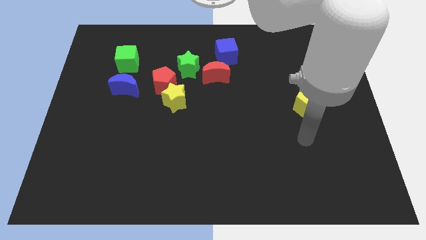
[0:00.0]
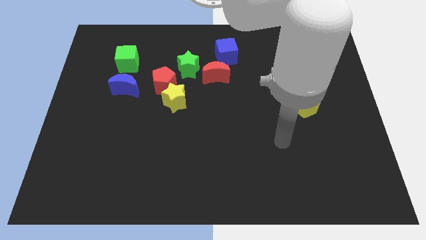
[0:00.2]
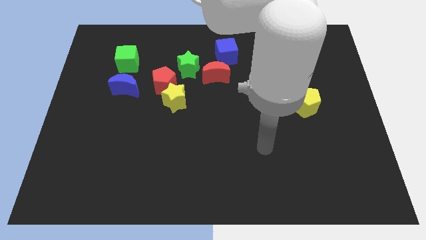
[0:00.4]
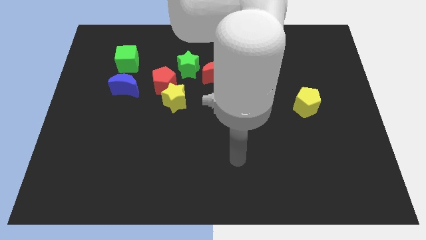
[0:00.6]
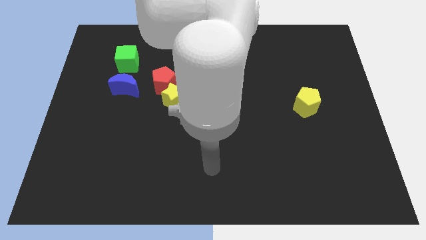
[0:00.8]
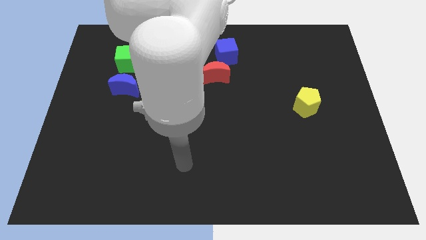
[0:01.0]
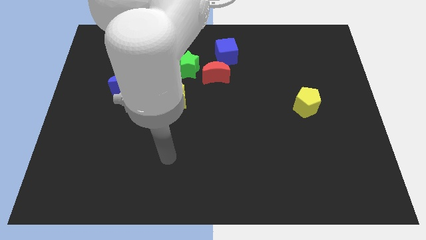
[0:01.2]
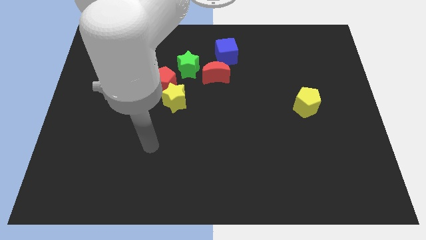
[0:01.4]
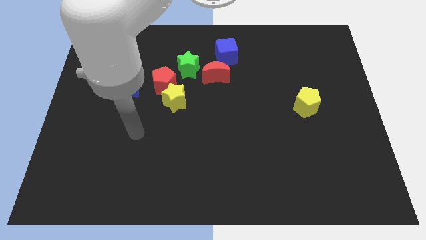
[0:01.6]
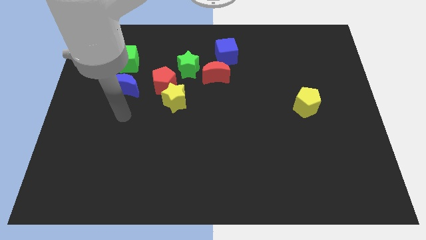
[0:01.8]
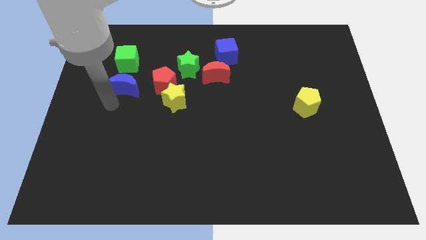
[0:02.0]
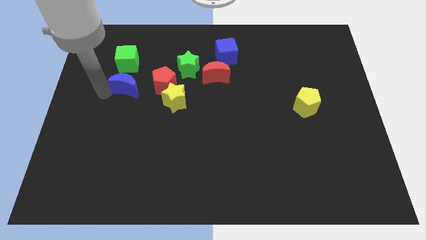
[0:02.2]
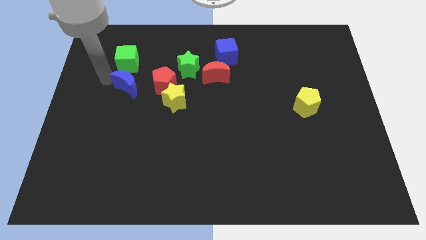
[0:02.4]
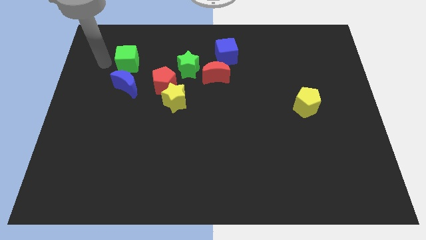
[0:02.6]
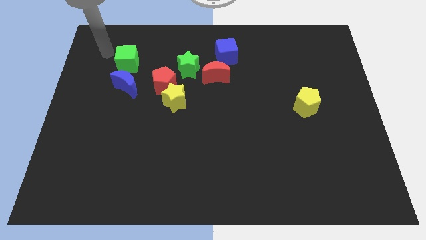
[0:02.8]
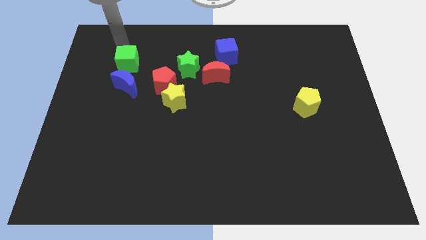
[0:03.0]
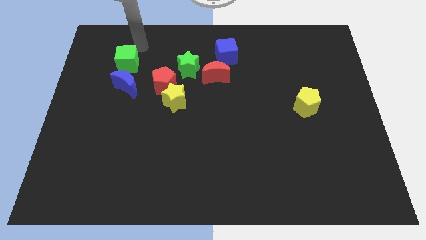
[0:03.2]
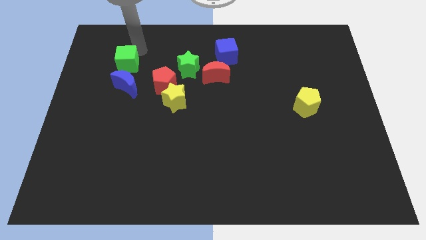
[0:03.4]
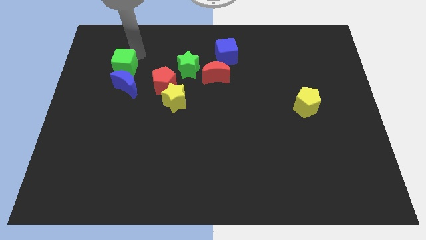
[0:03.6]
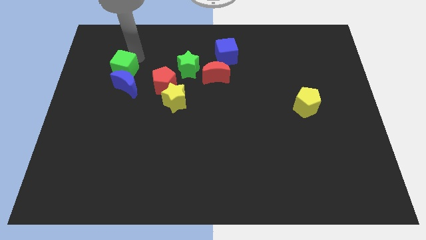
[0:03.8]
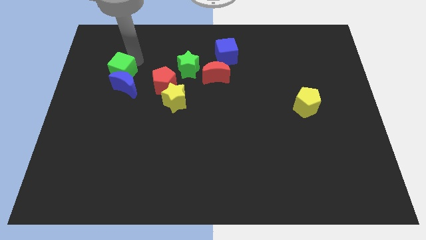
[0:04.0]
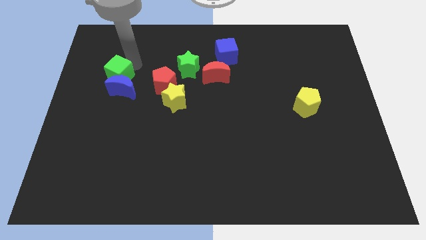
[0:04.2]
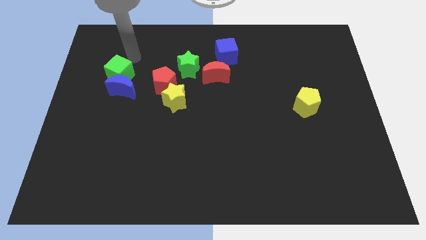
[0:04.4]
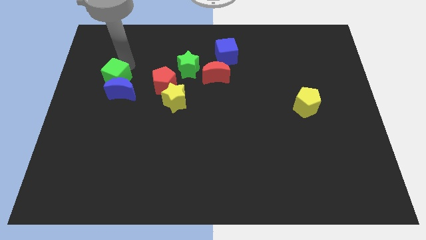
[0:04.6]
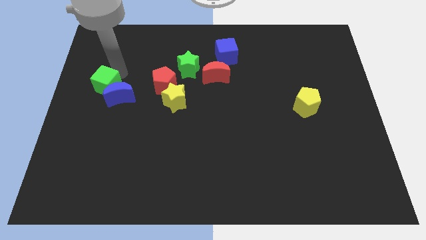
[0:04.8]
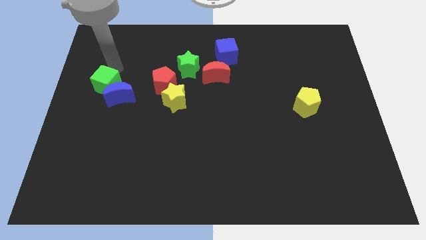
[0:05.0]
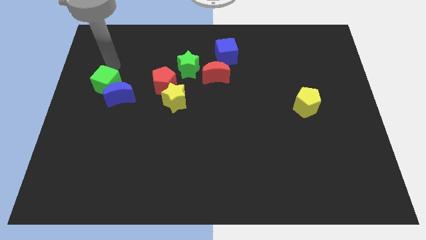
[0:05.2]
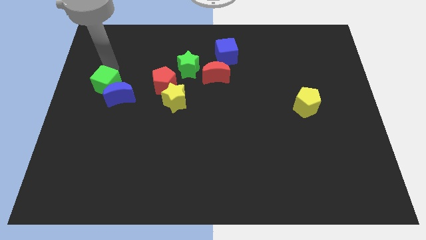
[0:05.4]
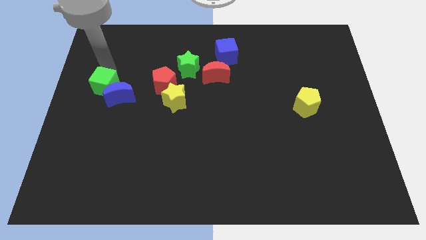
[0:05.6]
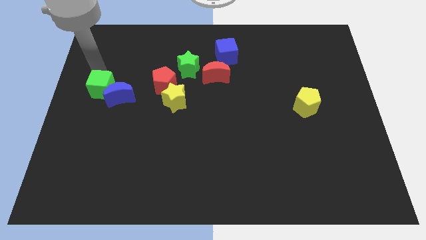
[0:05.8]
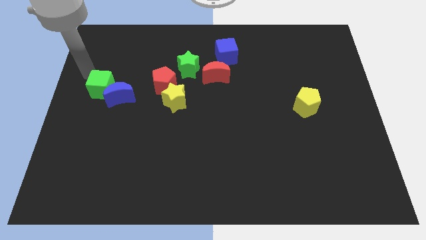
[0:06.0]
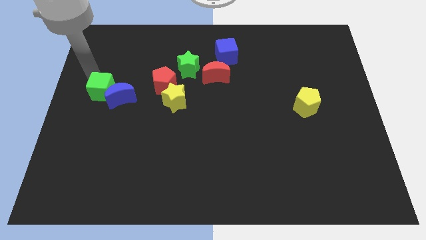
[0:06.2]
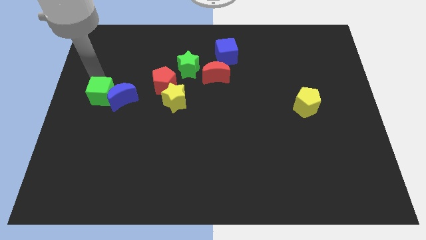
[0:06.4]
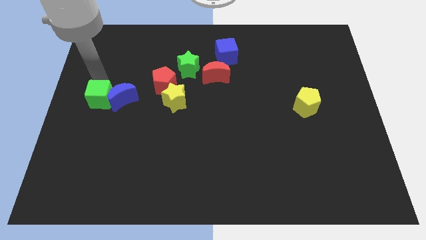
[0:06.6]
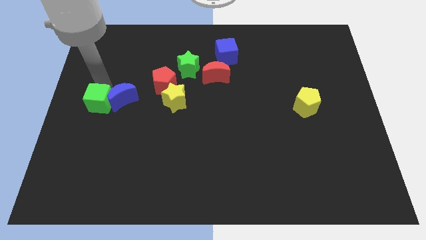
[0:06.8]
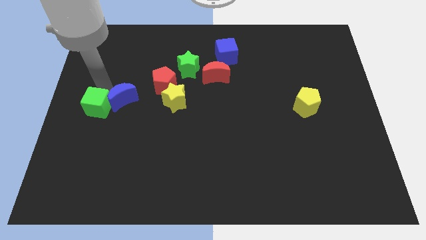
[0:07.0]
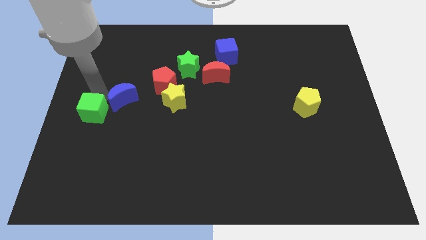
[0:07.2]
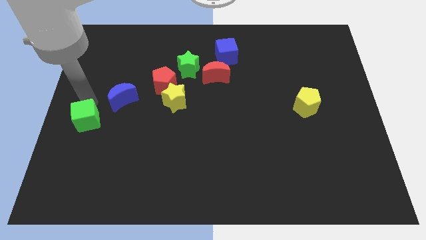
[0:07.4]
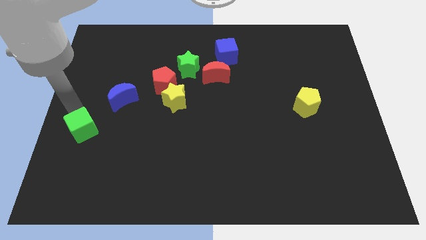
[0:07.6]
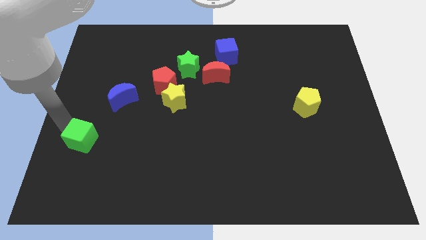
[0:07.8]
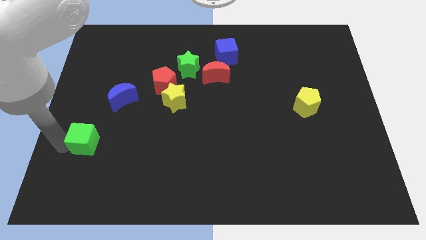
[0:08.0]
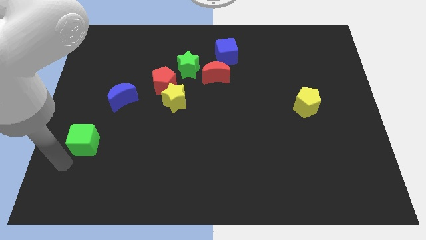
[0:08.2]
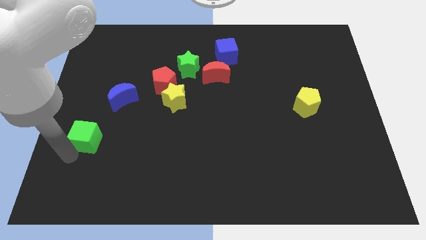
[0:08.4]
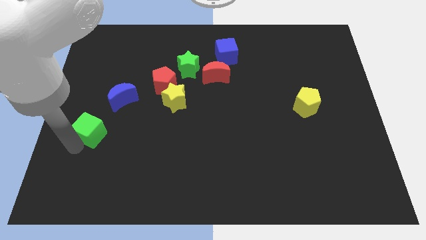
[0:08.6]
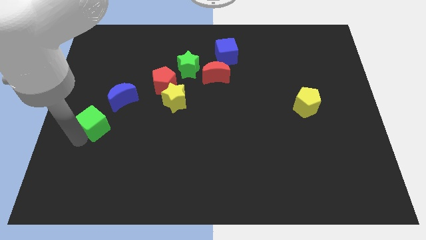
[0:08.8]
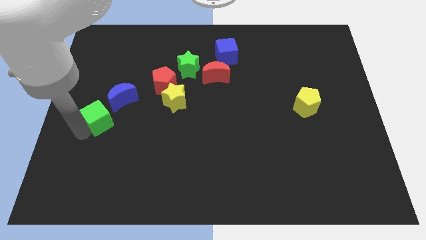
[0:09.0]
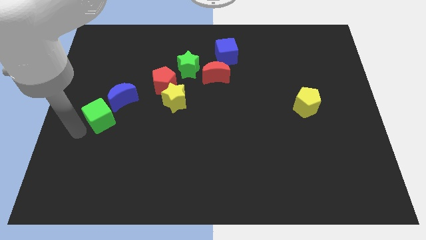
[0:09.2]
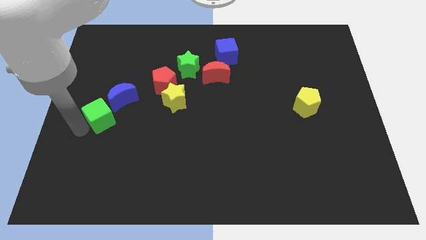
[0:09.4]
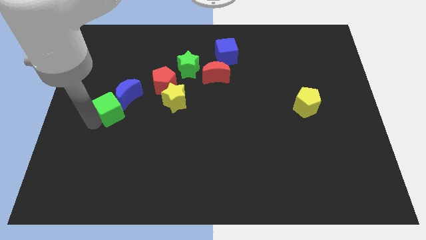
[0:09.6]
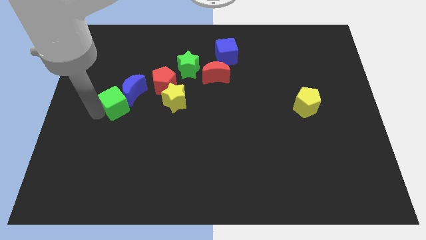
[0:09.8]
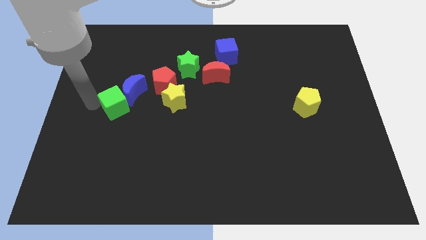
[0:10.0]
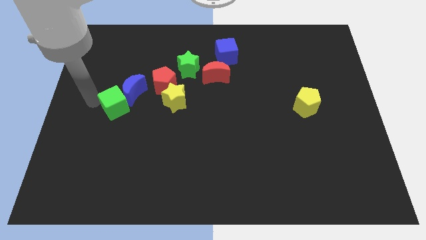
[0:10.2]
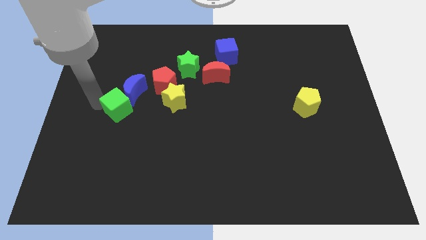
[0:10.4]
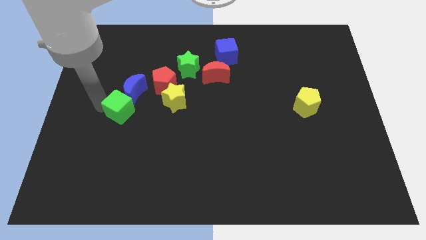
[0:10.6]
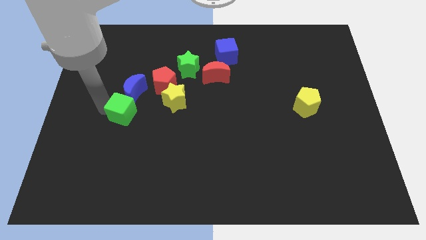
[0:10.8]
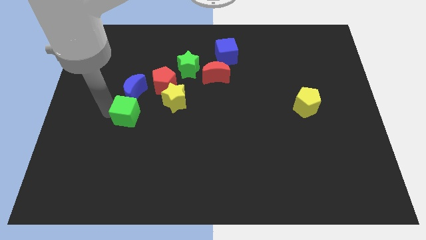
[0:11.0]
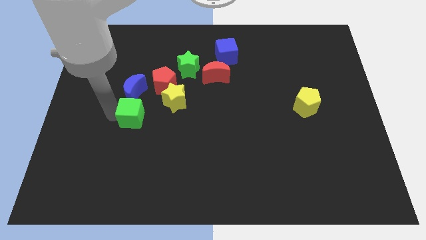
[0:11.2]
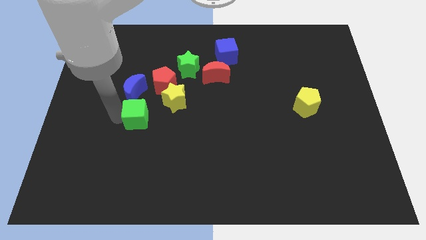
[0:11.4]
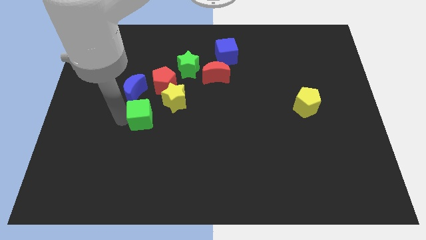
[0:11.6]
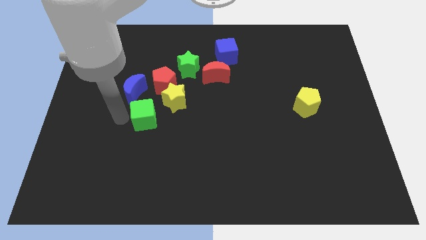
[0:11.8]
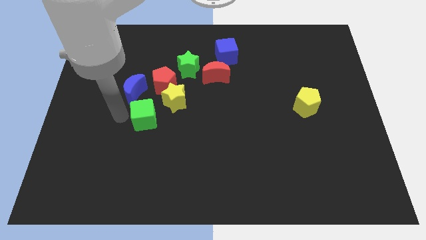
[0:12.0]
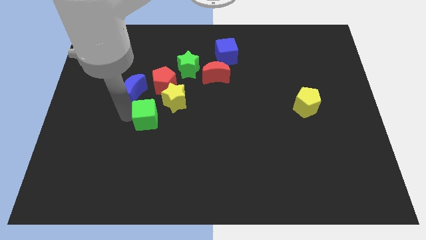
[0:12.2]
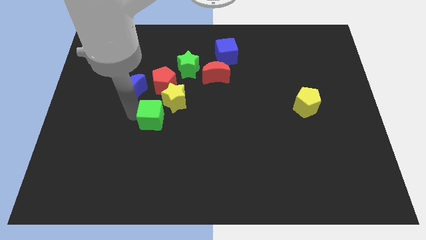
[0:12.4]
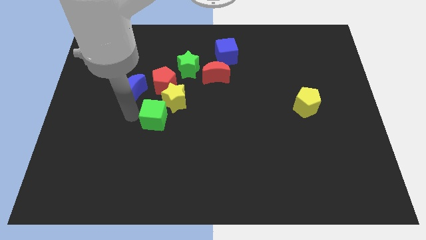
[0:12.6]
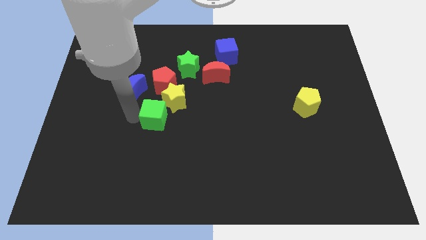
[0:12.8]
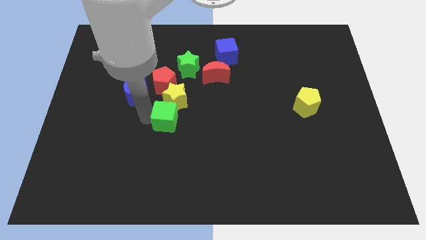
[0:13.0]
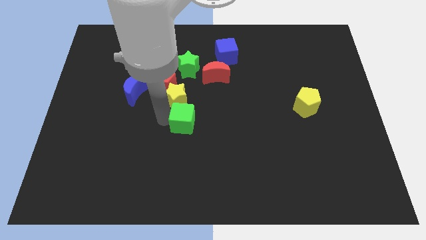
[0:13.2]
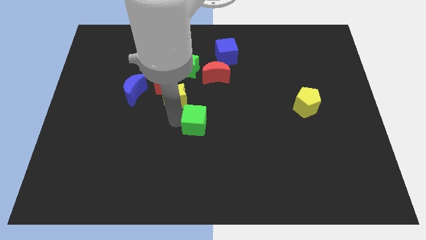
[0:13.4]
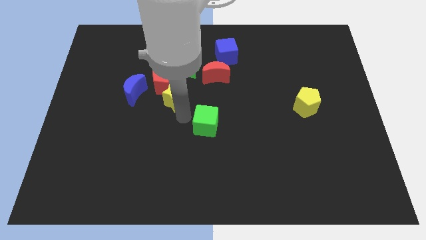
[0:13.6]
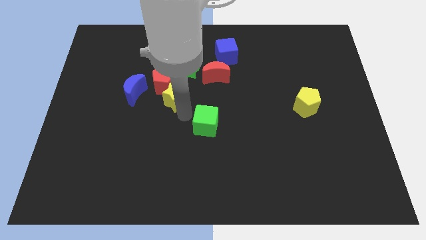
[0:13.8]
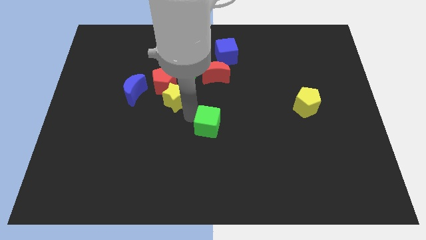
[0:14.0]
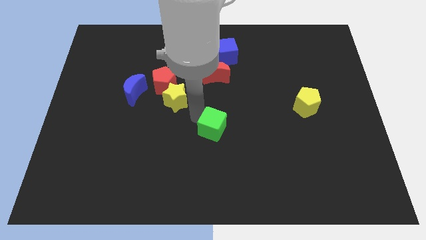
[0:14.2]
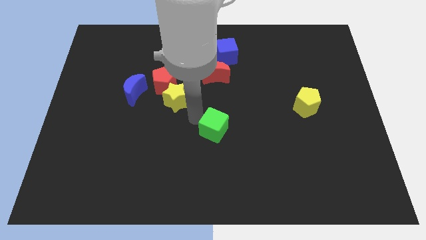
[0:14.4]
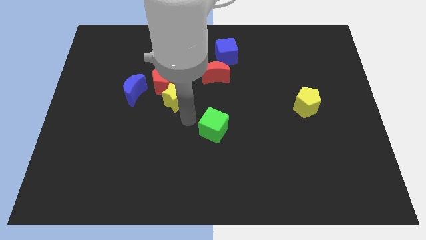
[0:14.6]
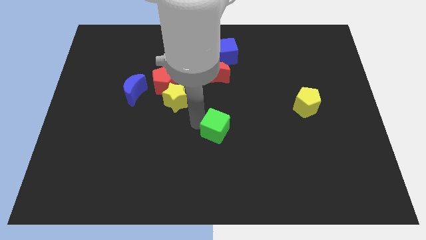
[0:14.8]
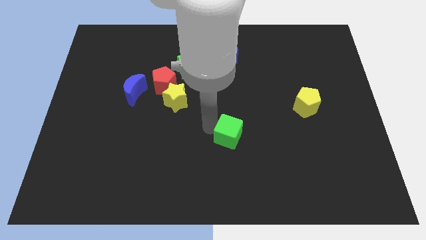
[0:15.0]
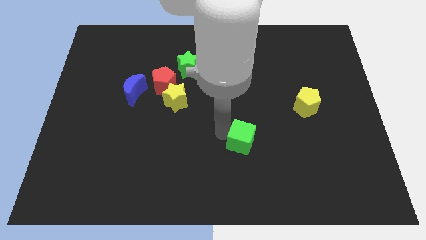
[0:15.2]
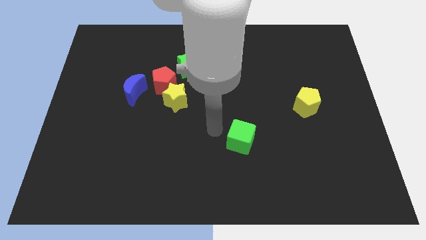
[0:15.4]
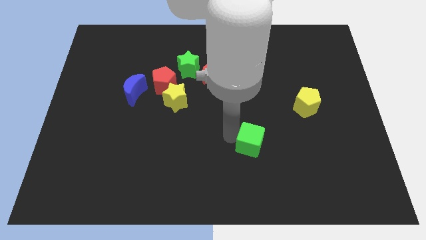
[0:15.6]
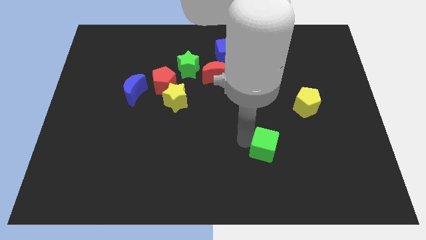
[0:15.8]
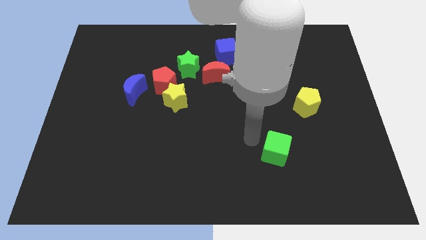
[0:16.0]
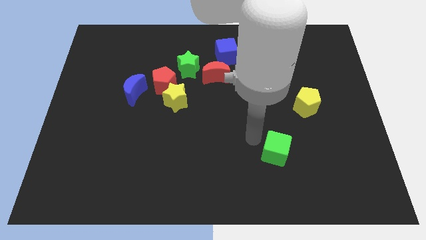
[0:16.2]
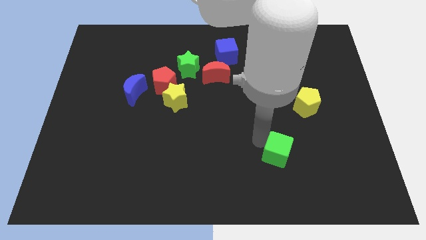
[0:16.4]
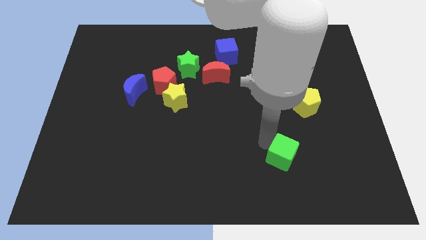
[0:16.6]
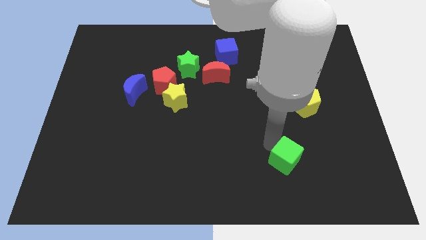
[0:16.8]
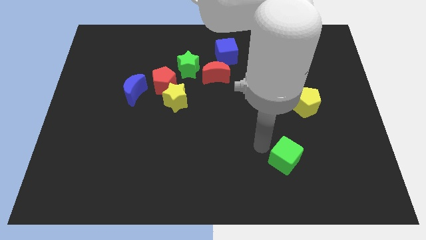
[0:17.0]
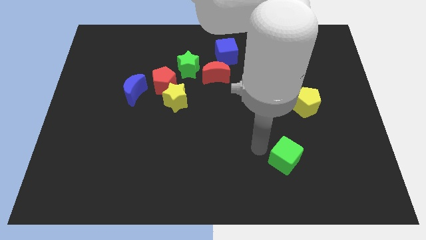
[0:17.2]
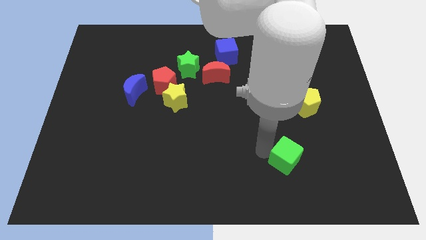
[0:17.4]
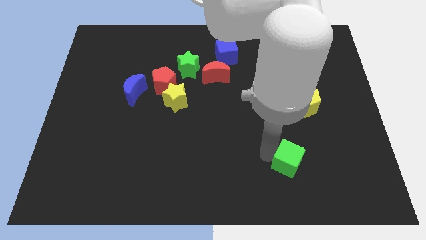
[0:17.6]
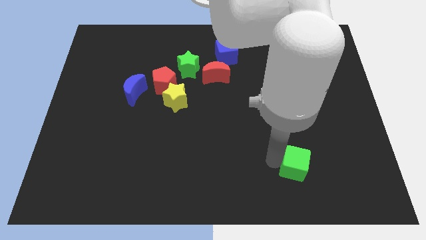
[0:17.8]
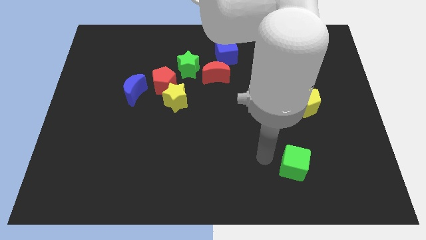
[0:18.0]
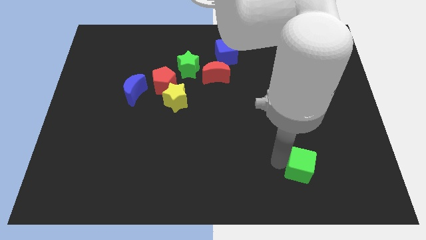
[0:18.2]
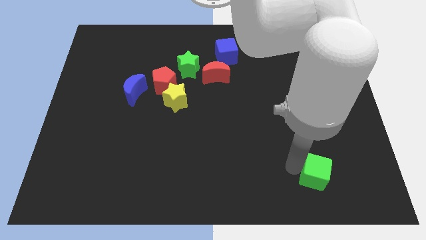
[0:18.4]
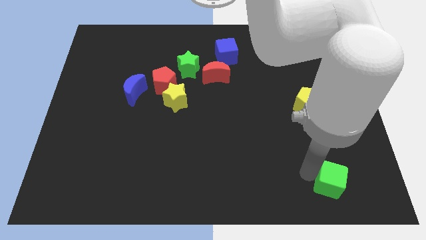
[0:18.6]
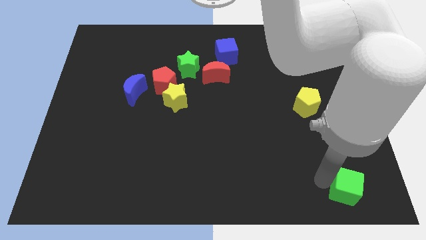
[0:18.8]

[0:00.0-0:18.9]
slide the green cube to the bottom right of the board
